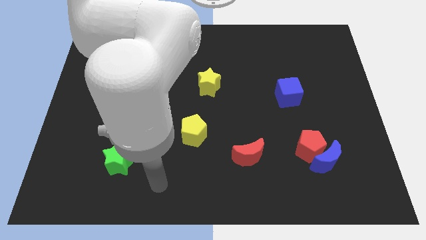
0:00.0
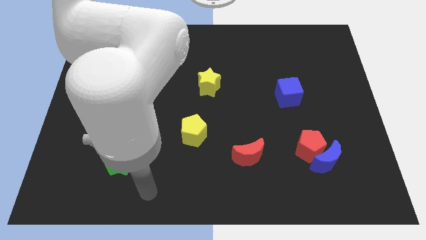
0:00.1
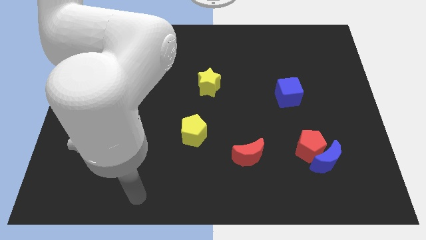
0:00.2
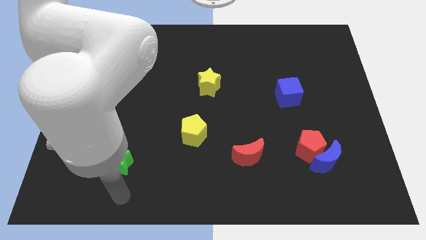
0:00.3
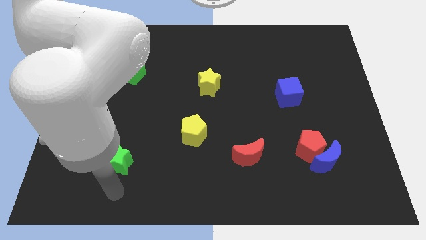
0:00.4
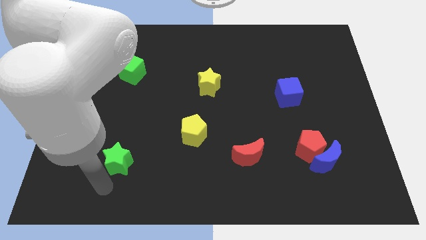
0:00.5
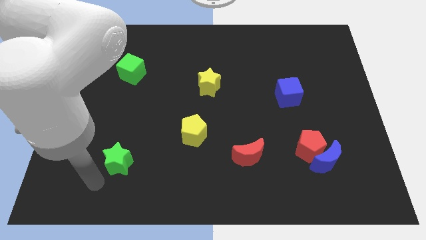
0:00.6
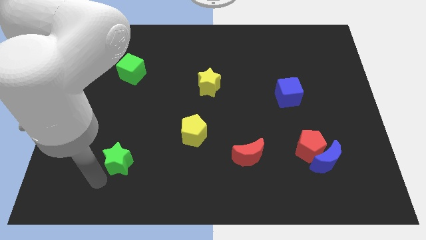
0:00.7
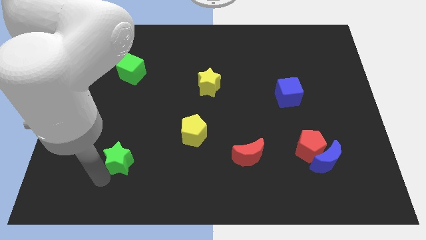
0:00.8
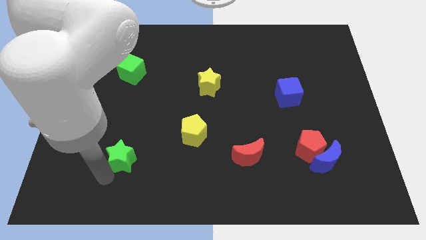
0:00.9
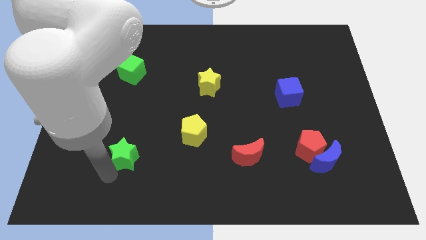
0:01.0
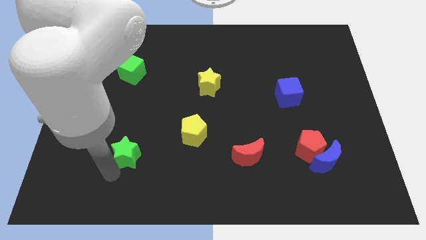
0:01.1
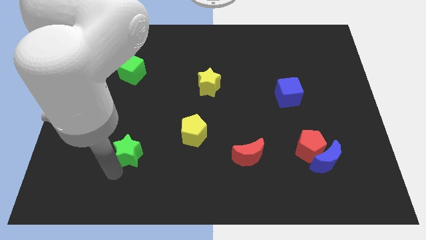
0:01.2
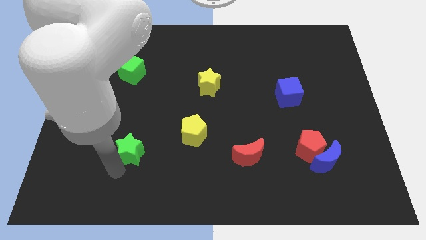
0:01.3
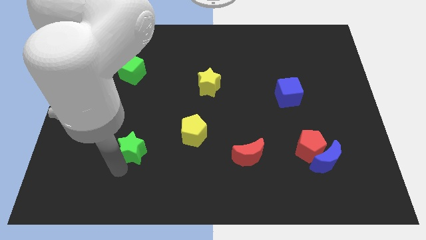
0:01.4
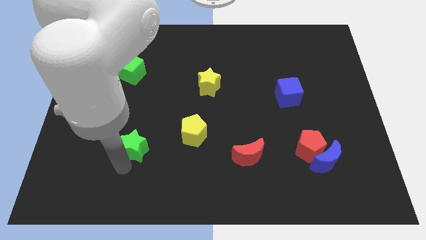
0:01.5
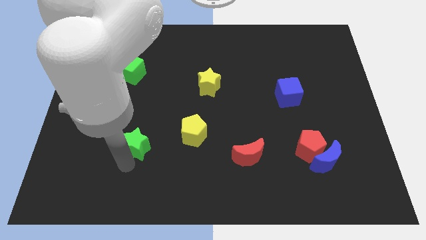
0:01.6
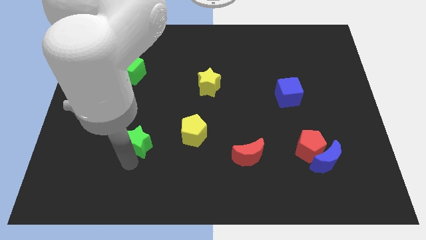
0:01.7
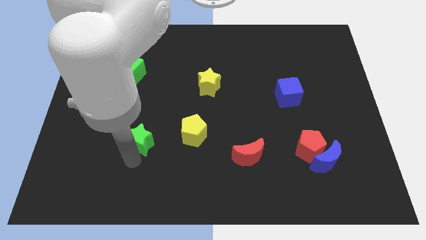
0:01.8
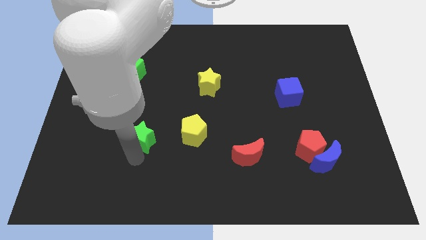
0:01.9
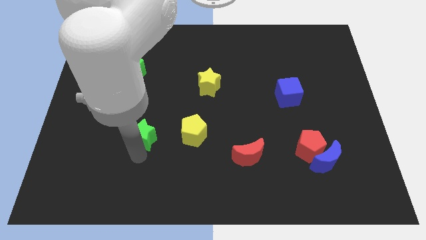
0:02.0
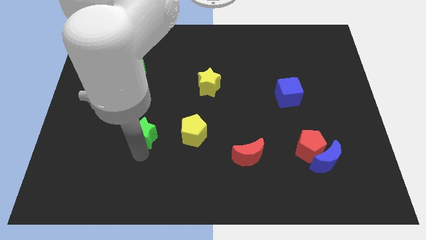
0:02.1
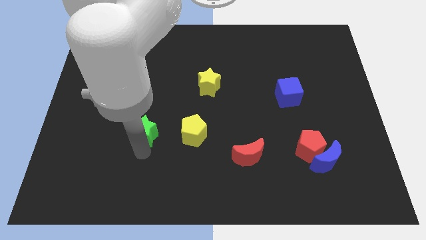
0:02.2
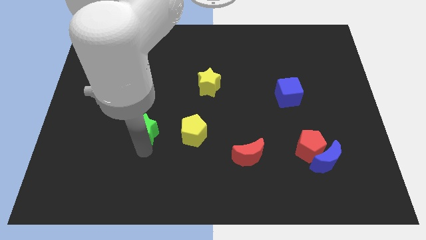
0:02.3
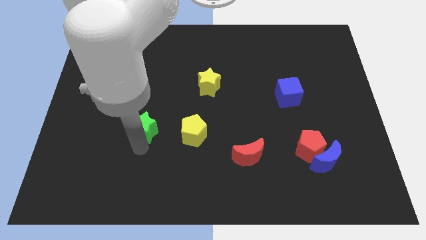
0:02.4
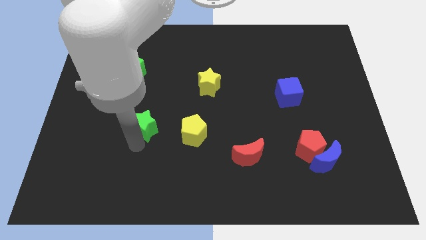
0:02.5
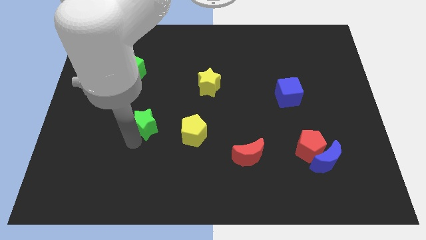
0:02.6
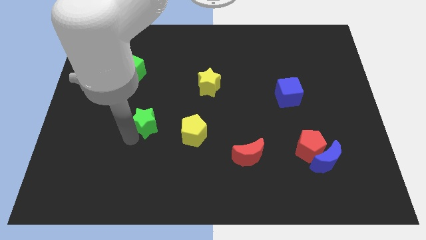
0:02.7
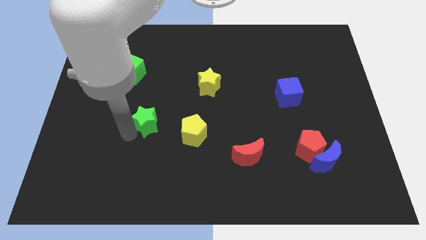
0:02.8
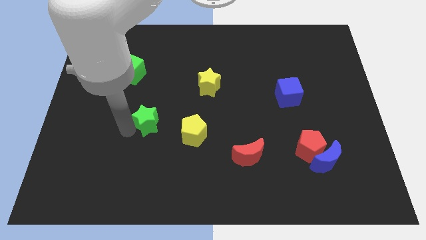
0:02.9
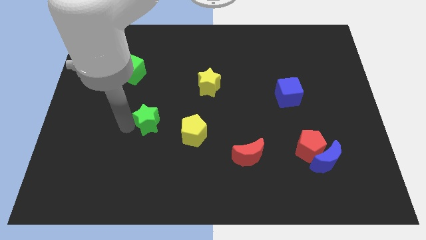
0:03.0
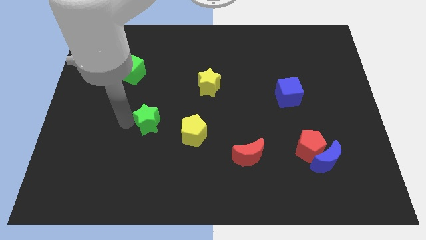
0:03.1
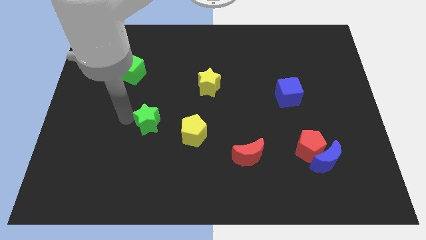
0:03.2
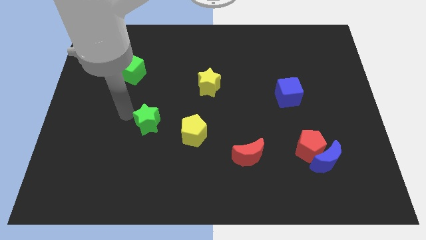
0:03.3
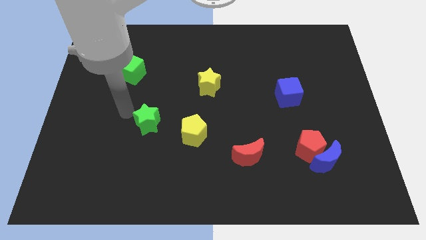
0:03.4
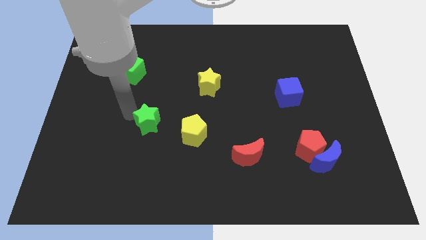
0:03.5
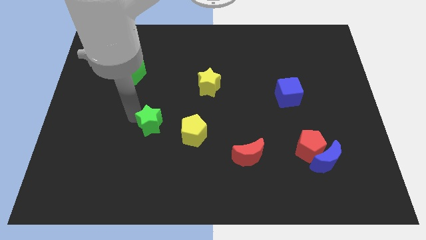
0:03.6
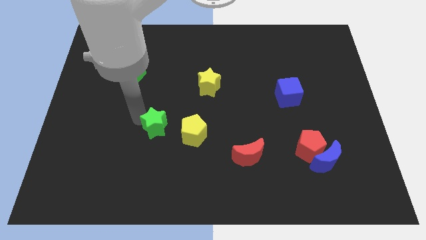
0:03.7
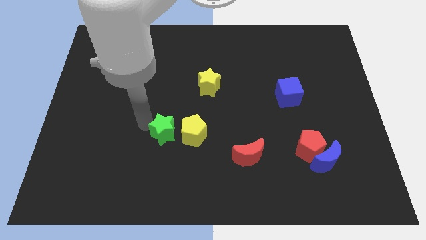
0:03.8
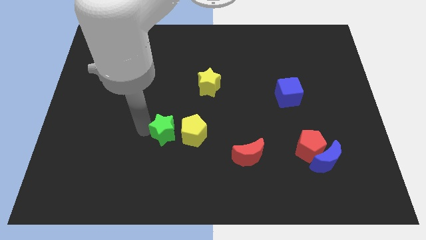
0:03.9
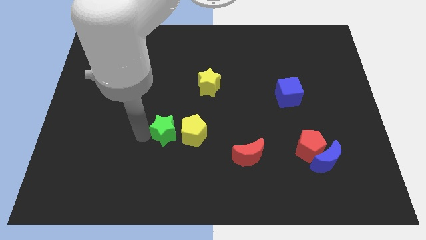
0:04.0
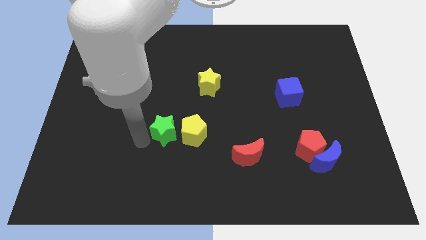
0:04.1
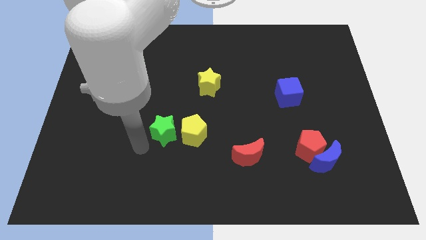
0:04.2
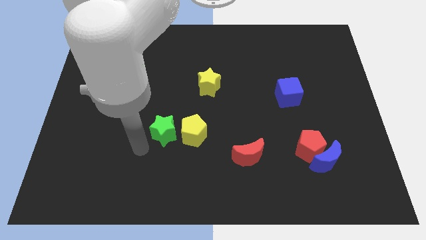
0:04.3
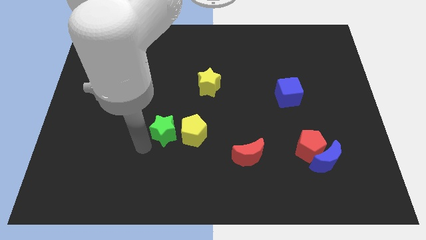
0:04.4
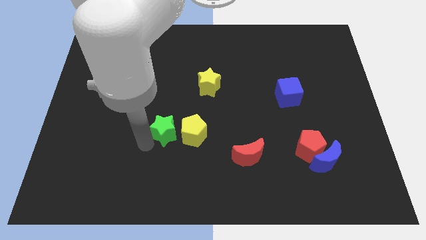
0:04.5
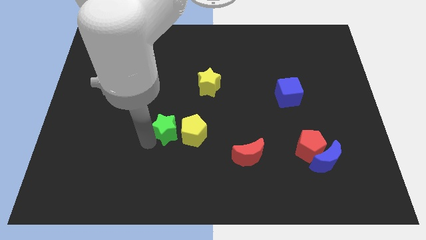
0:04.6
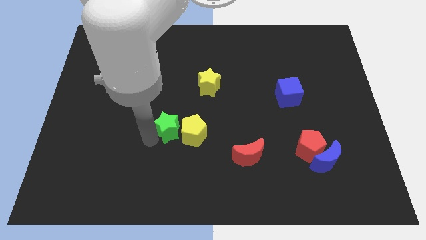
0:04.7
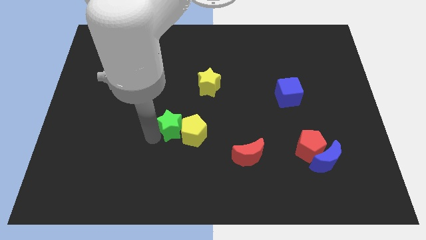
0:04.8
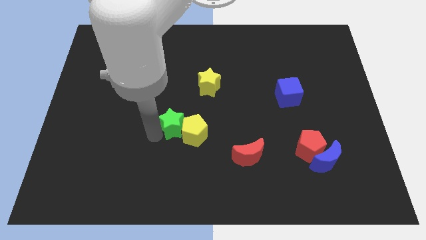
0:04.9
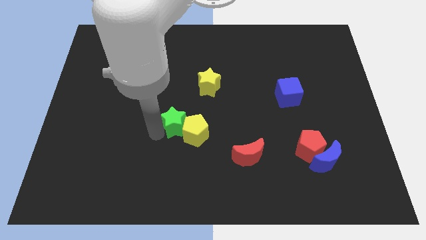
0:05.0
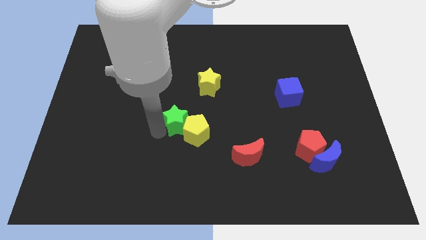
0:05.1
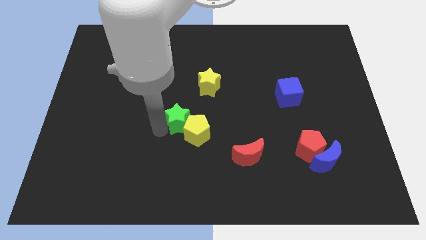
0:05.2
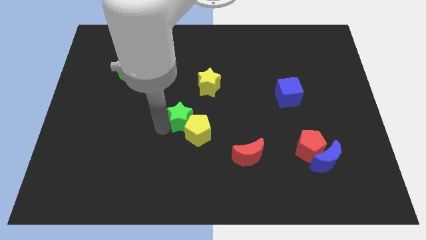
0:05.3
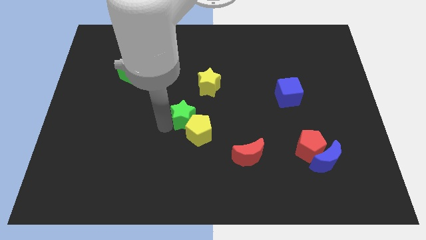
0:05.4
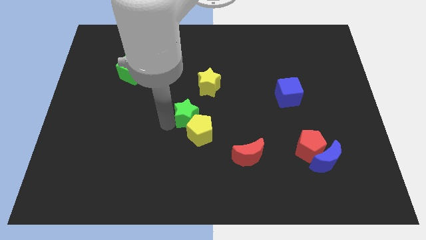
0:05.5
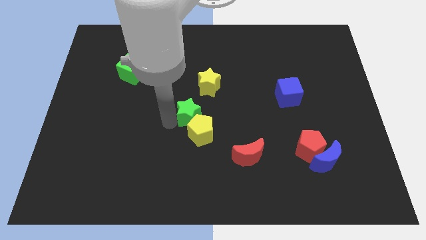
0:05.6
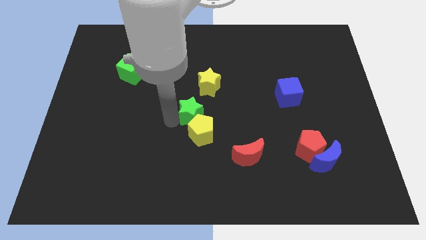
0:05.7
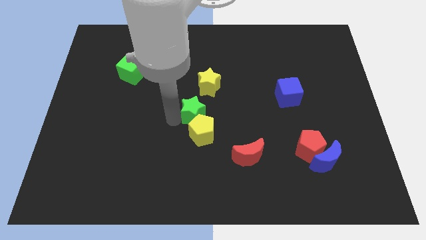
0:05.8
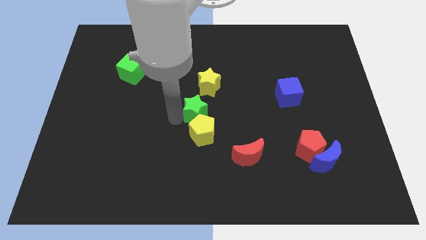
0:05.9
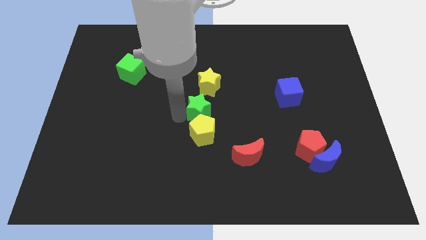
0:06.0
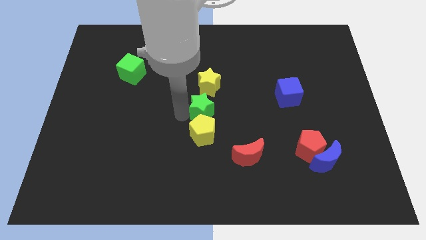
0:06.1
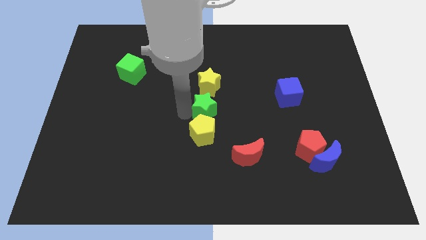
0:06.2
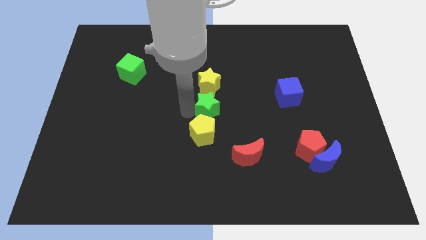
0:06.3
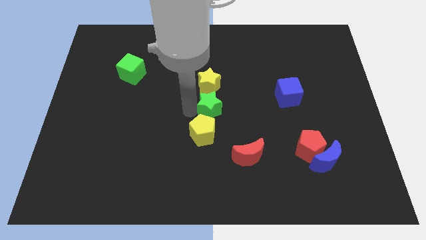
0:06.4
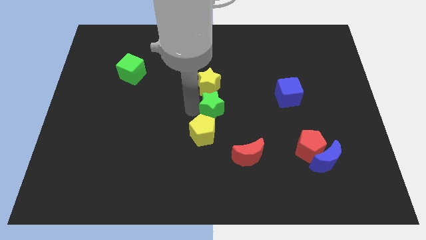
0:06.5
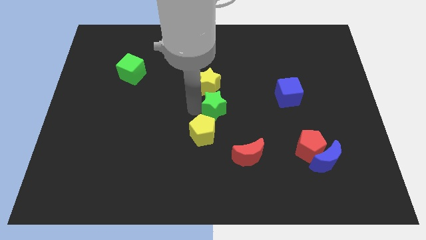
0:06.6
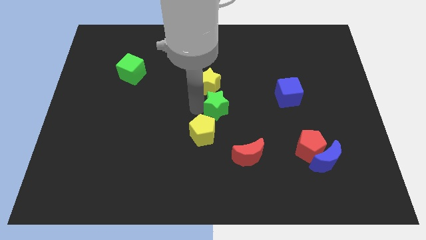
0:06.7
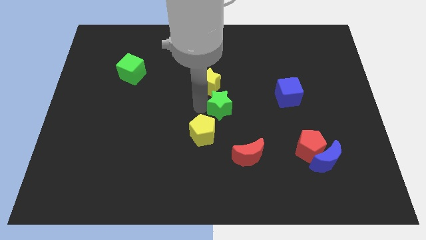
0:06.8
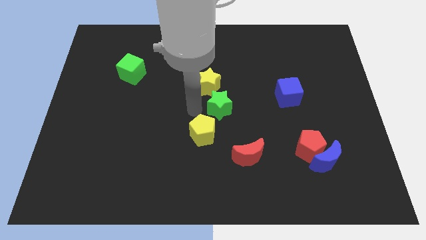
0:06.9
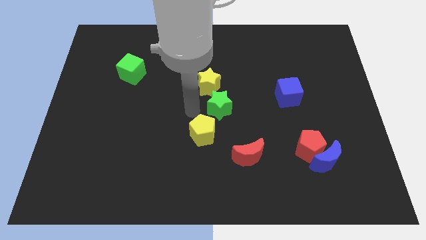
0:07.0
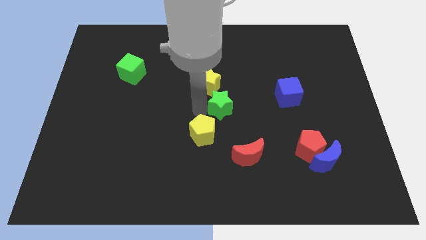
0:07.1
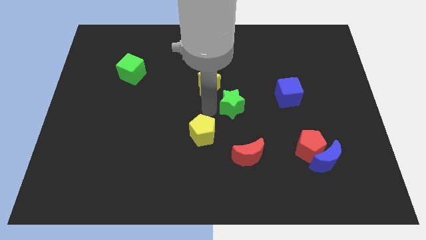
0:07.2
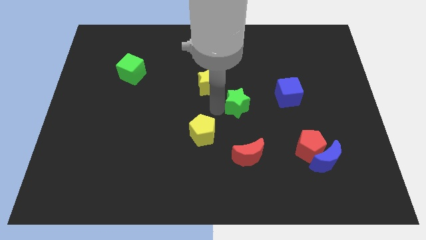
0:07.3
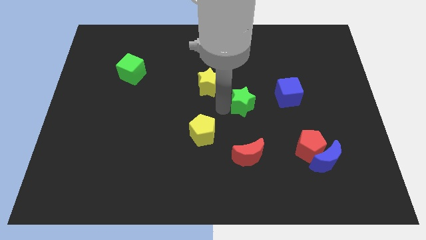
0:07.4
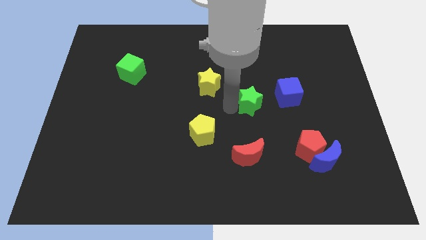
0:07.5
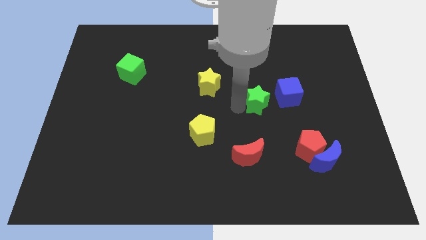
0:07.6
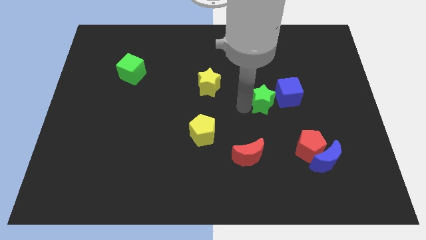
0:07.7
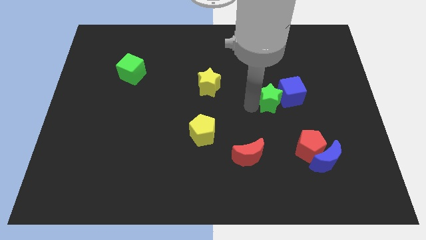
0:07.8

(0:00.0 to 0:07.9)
put the green star close to the blue cube
